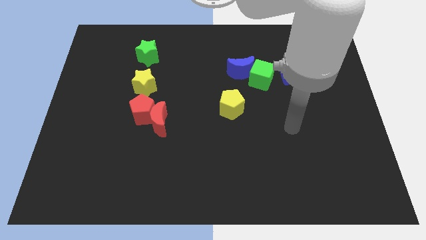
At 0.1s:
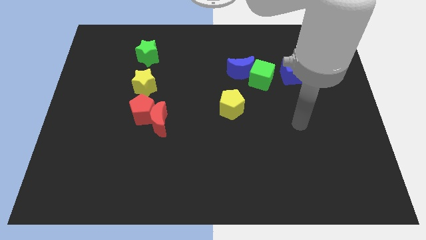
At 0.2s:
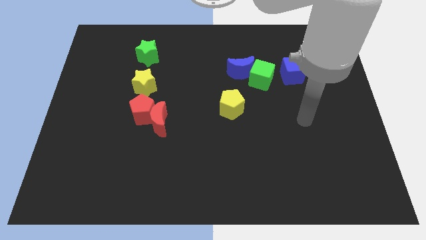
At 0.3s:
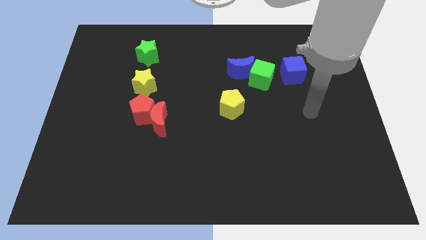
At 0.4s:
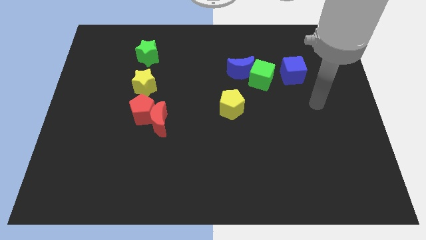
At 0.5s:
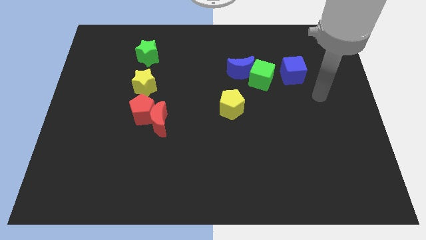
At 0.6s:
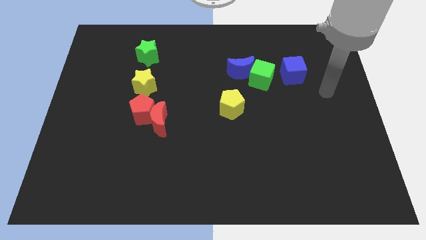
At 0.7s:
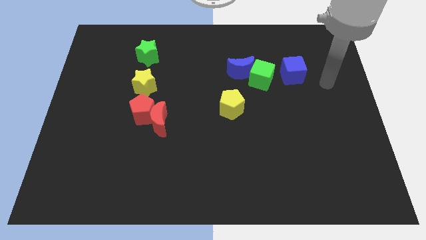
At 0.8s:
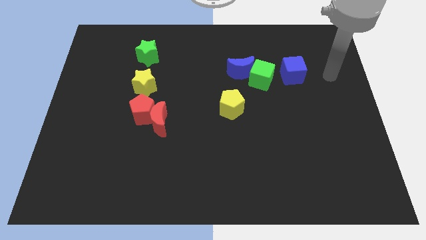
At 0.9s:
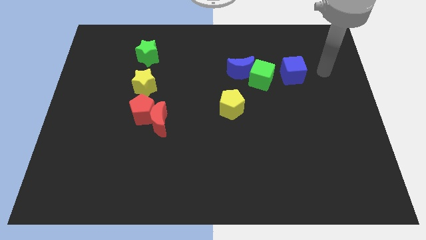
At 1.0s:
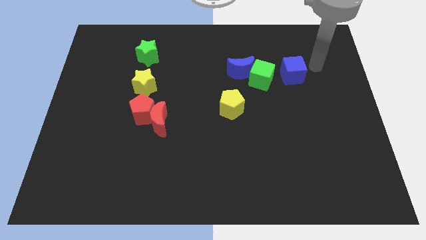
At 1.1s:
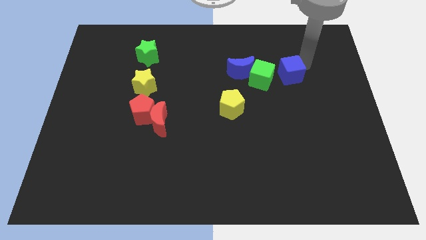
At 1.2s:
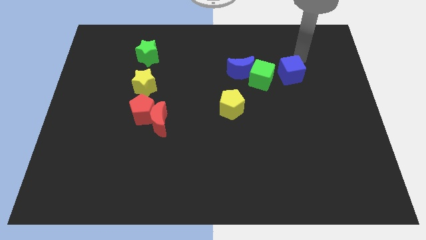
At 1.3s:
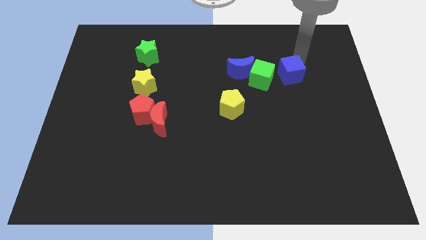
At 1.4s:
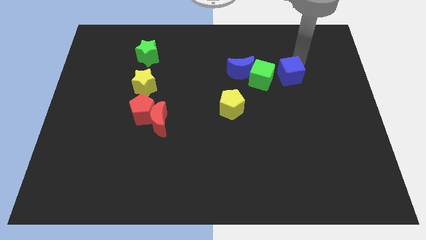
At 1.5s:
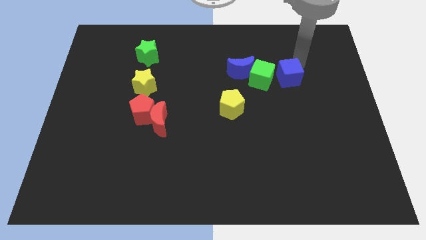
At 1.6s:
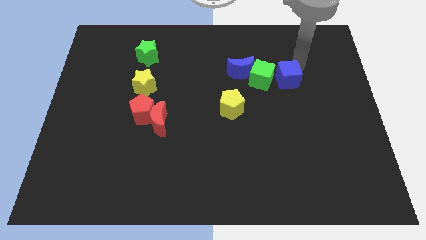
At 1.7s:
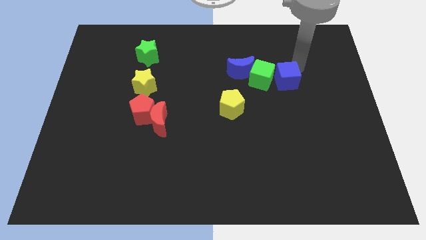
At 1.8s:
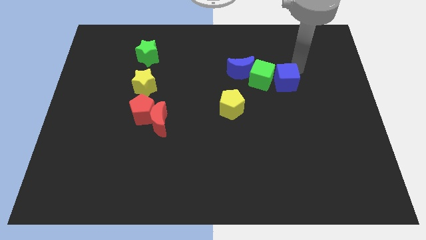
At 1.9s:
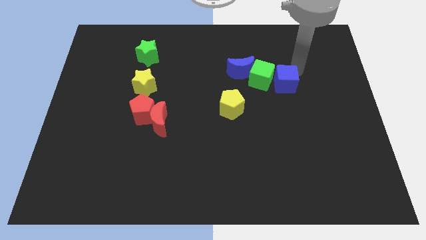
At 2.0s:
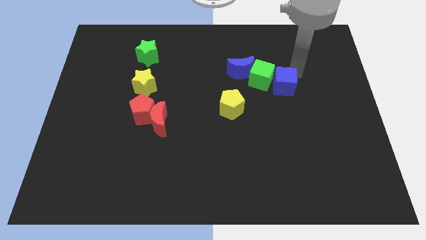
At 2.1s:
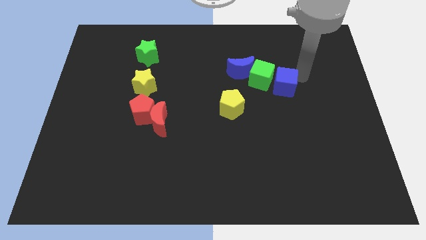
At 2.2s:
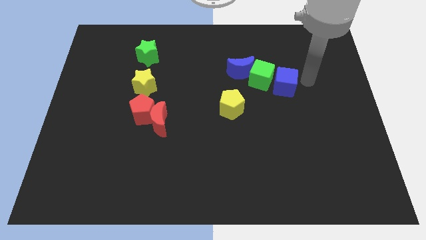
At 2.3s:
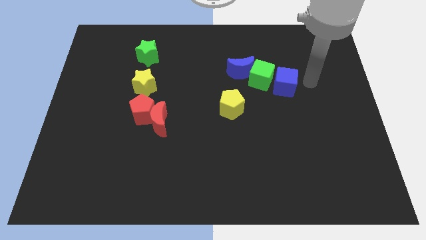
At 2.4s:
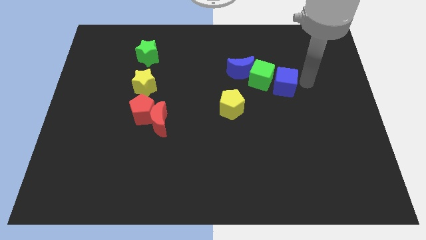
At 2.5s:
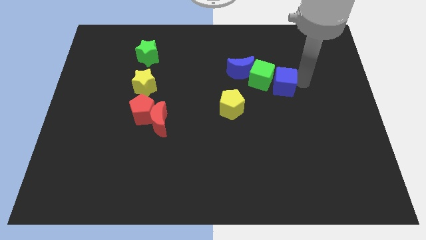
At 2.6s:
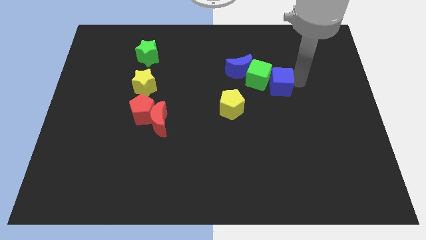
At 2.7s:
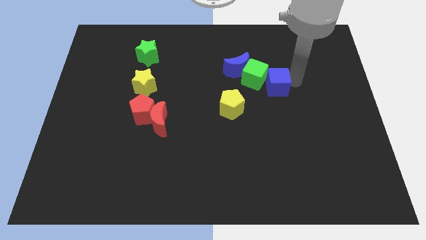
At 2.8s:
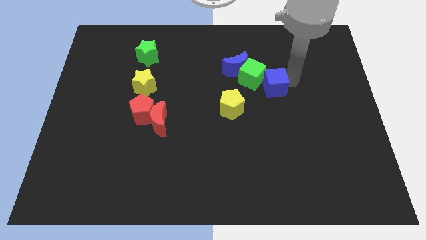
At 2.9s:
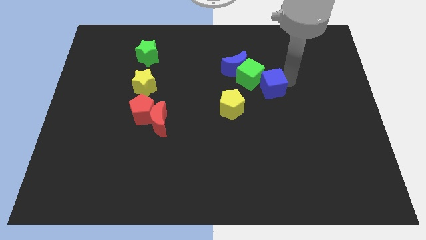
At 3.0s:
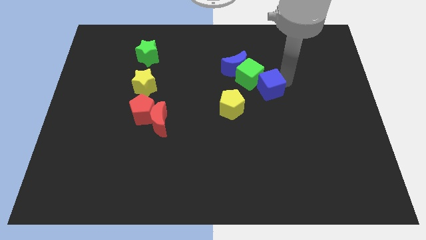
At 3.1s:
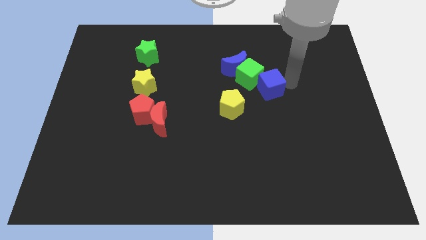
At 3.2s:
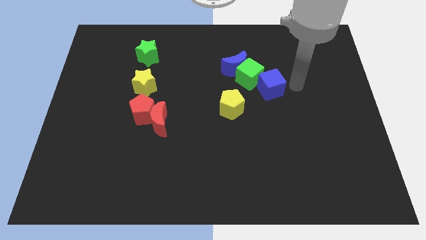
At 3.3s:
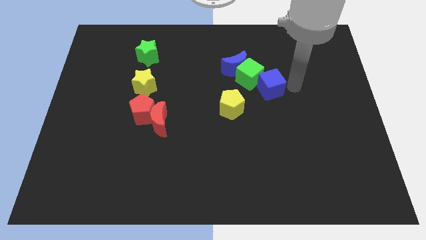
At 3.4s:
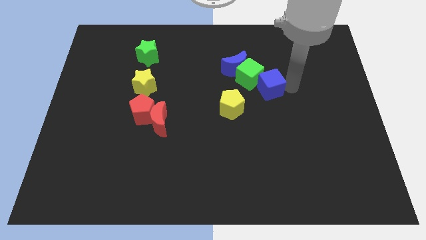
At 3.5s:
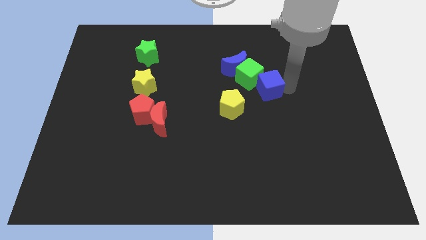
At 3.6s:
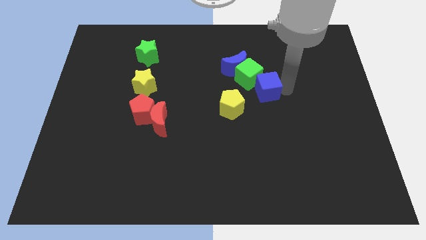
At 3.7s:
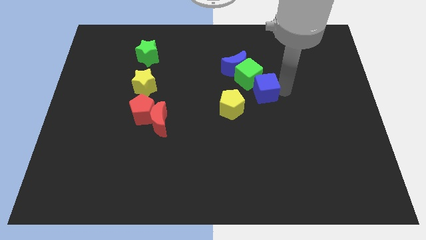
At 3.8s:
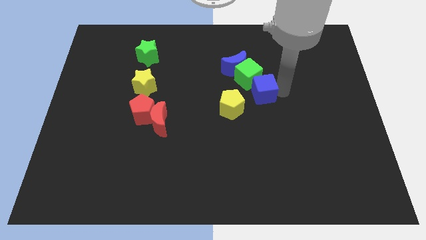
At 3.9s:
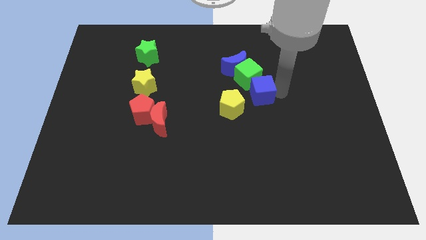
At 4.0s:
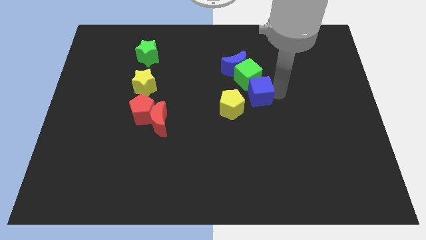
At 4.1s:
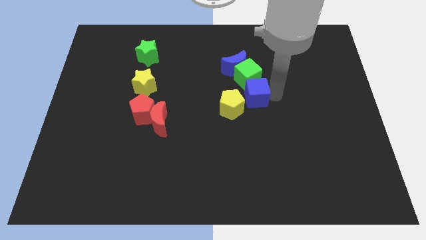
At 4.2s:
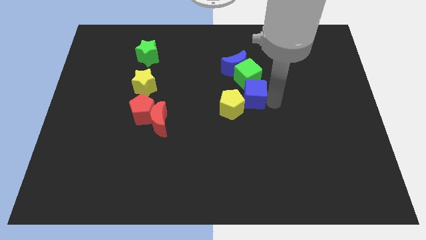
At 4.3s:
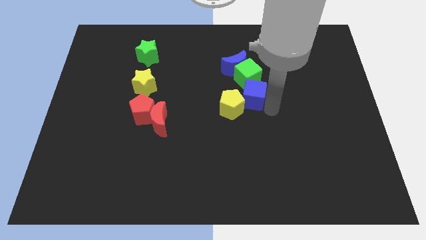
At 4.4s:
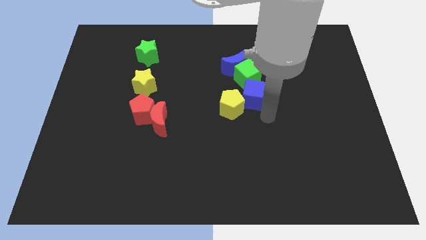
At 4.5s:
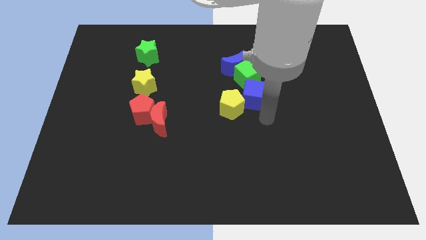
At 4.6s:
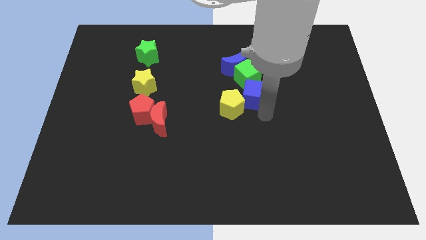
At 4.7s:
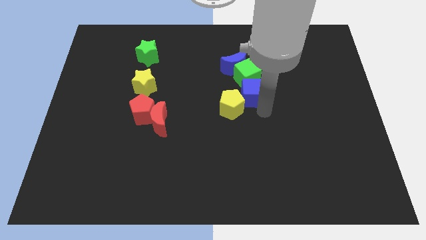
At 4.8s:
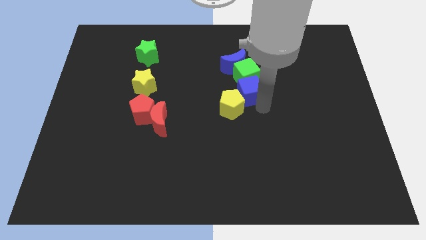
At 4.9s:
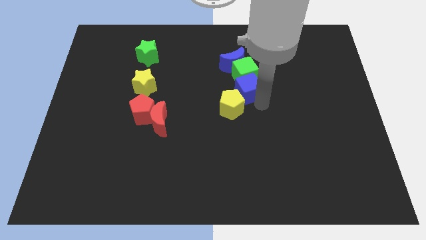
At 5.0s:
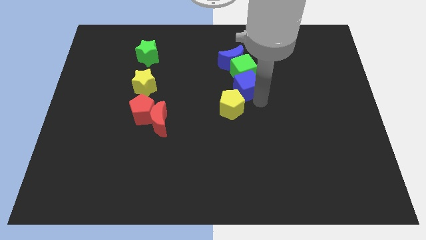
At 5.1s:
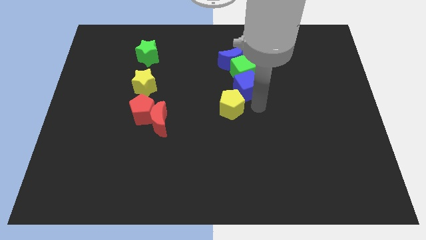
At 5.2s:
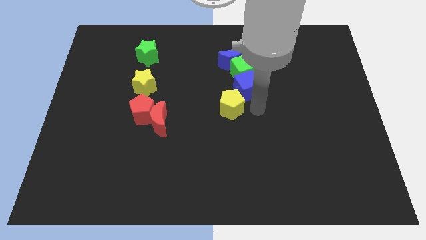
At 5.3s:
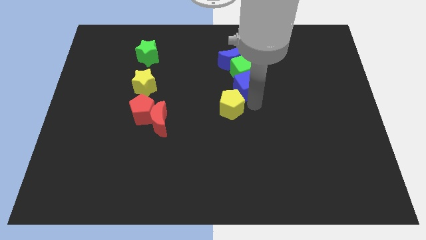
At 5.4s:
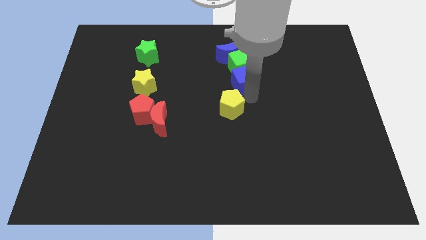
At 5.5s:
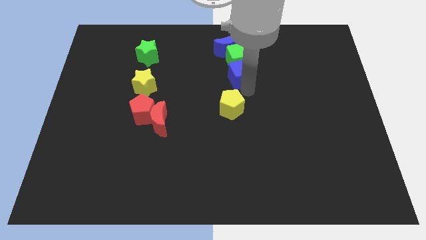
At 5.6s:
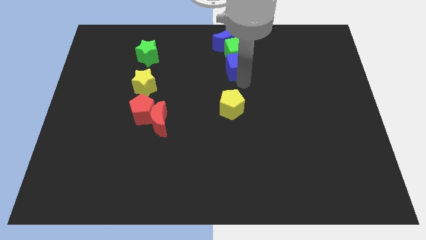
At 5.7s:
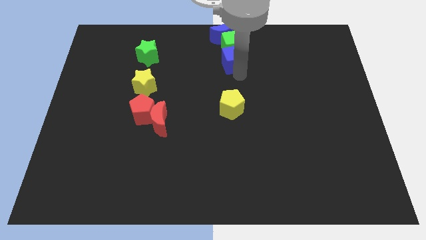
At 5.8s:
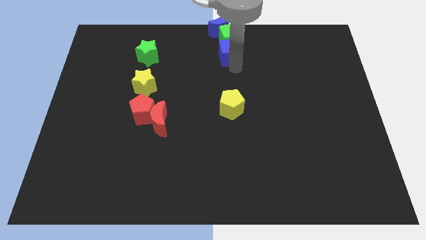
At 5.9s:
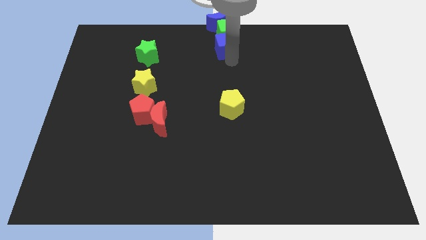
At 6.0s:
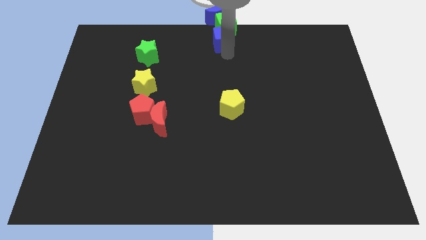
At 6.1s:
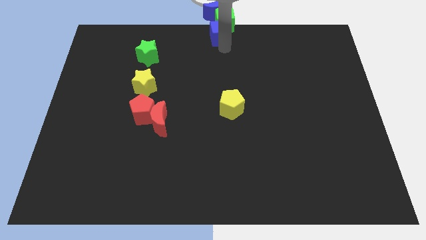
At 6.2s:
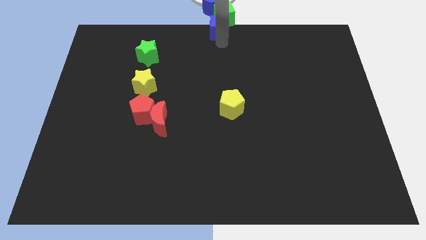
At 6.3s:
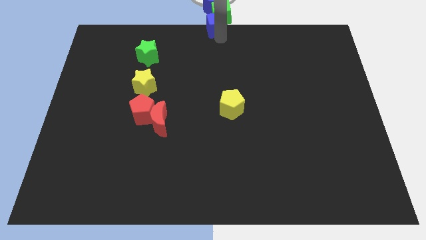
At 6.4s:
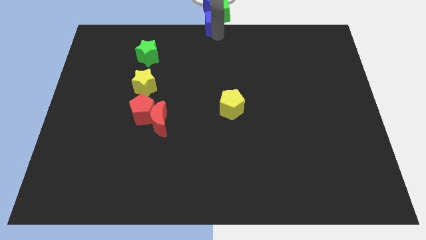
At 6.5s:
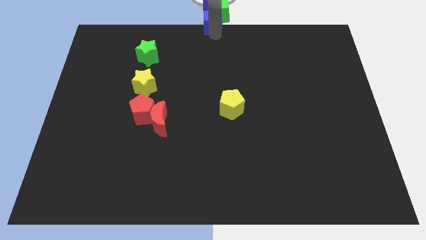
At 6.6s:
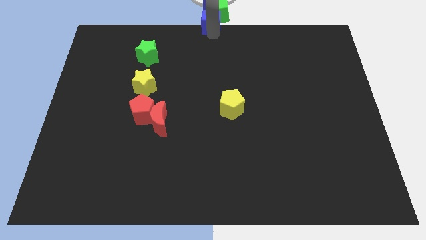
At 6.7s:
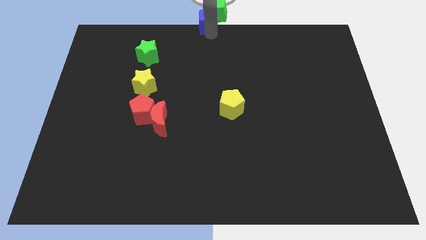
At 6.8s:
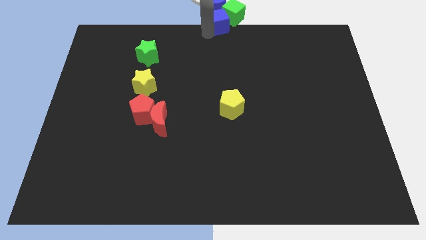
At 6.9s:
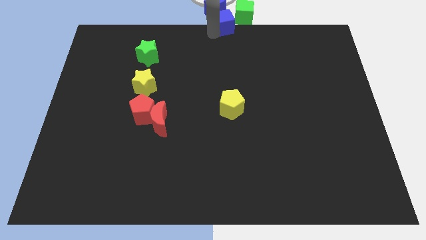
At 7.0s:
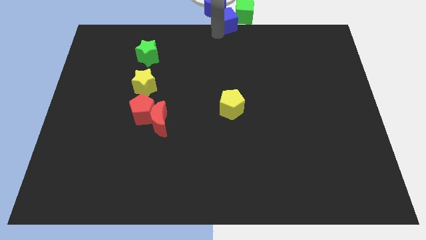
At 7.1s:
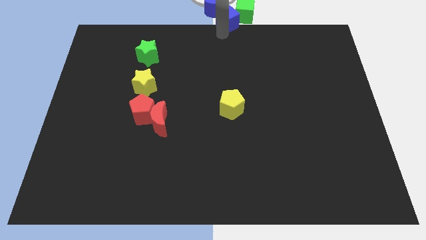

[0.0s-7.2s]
push the blue cube to the blue moon
